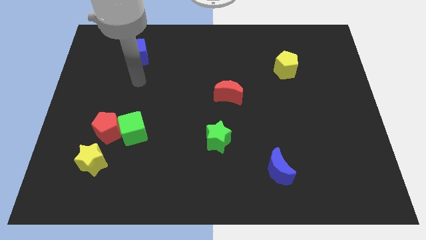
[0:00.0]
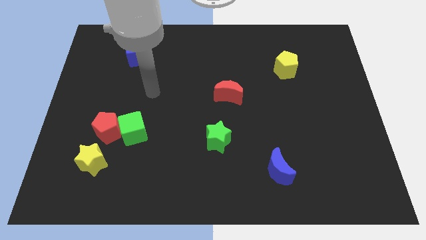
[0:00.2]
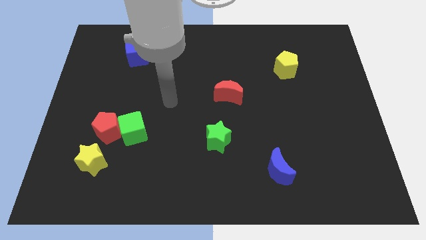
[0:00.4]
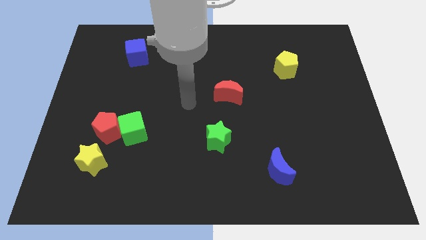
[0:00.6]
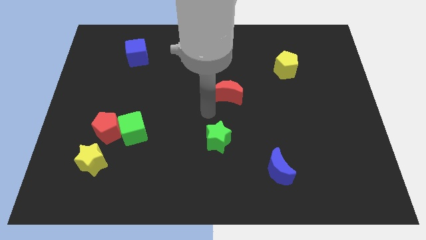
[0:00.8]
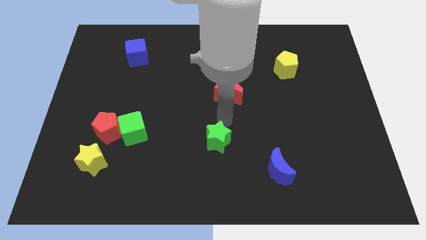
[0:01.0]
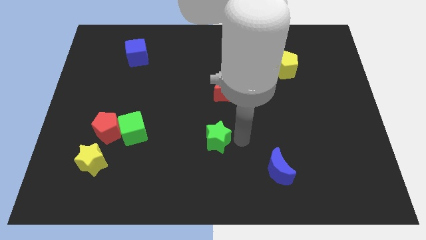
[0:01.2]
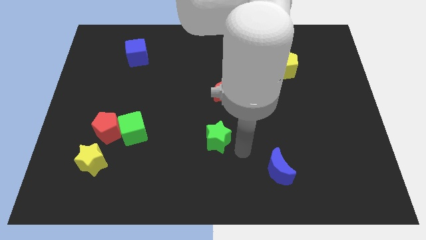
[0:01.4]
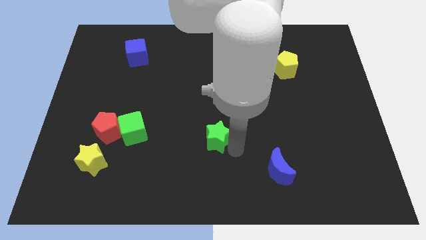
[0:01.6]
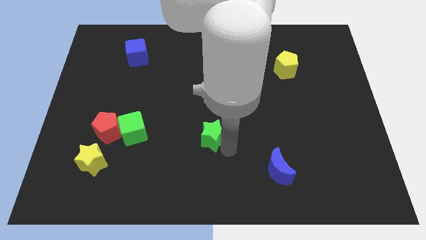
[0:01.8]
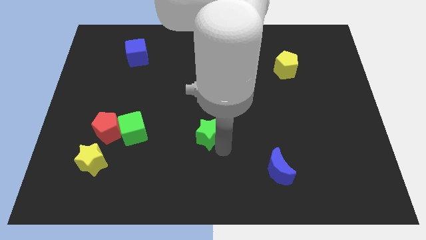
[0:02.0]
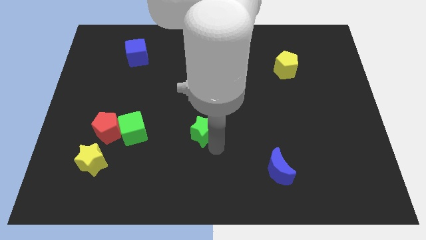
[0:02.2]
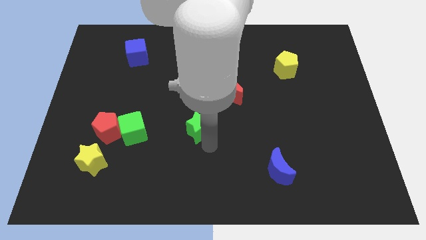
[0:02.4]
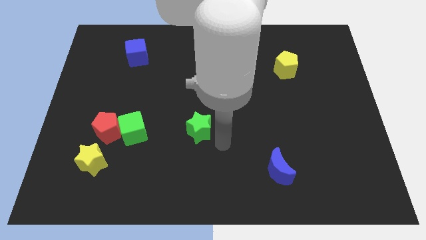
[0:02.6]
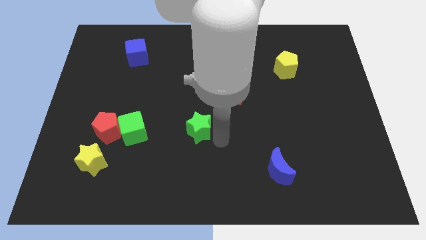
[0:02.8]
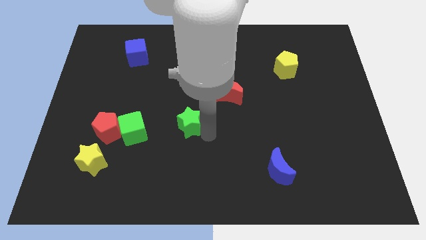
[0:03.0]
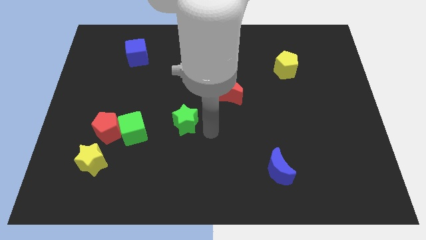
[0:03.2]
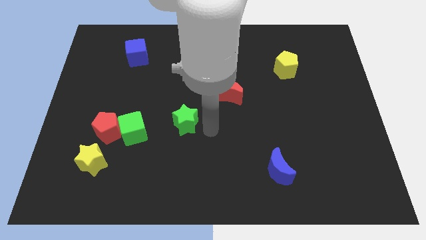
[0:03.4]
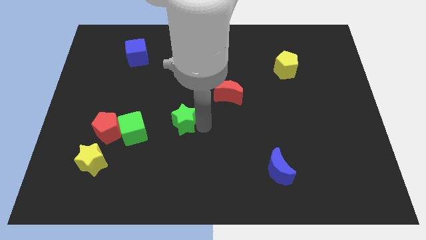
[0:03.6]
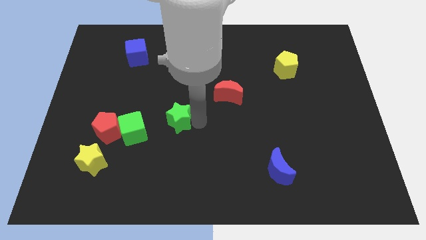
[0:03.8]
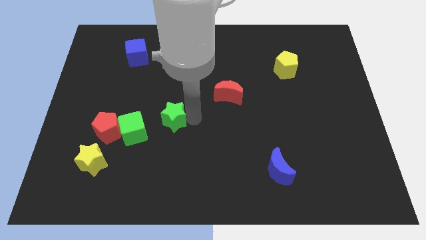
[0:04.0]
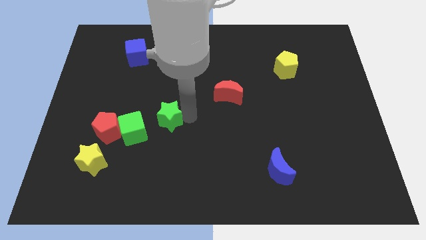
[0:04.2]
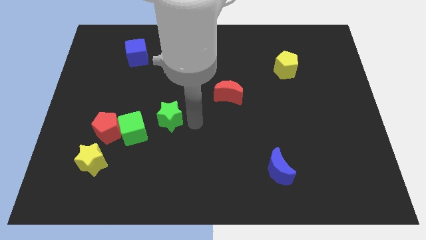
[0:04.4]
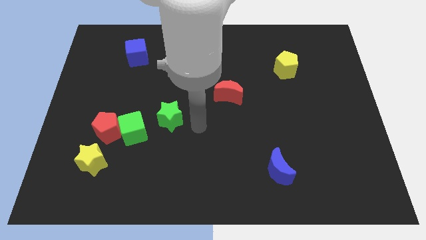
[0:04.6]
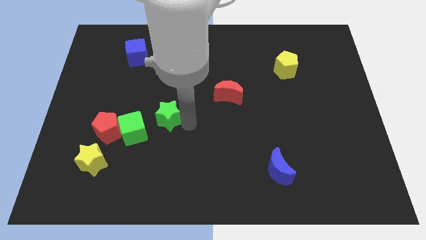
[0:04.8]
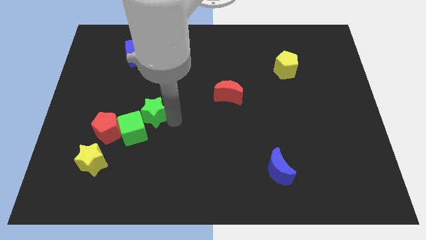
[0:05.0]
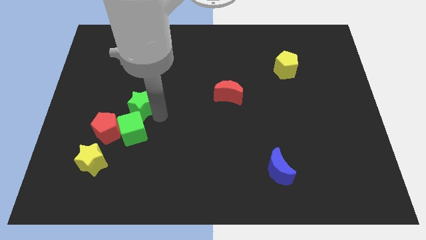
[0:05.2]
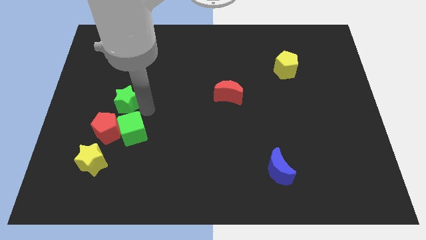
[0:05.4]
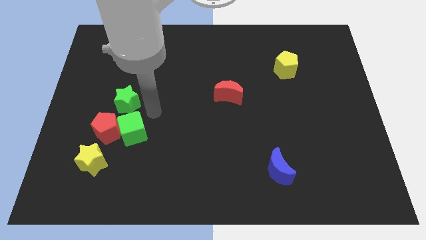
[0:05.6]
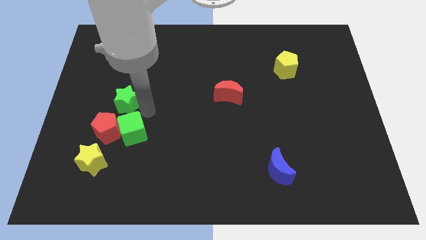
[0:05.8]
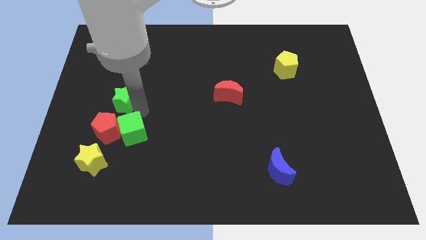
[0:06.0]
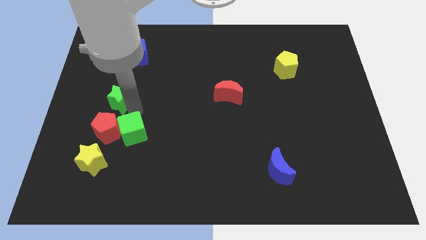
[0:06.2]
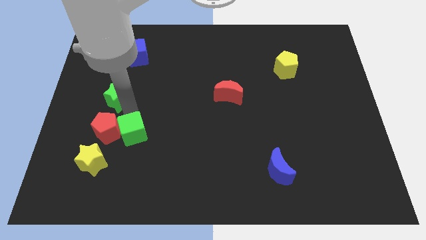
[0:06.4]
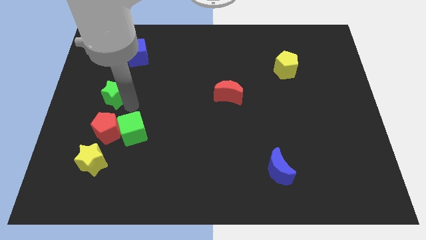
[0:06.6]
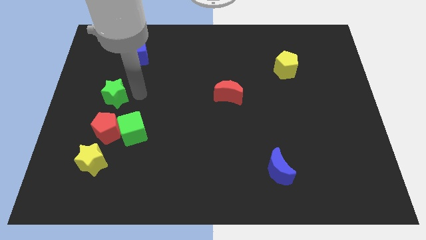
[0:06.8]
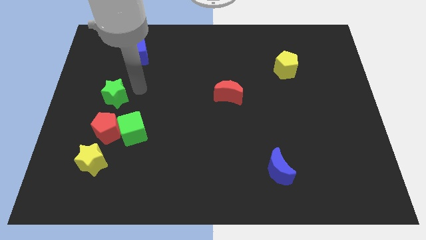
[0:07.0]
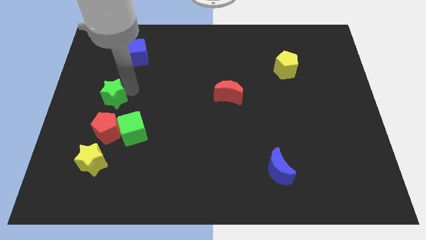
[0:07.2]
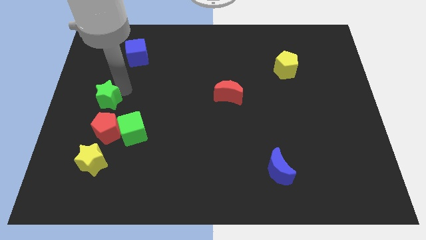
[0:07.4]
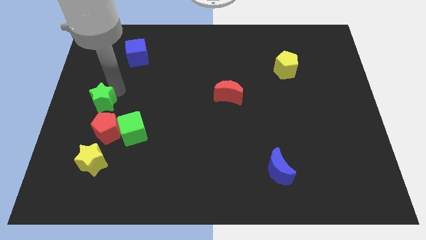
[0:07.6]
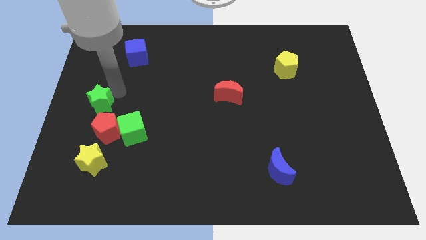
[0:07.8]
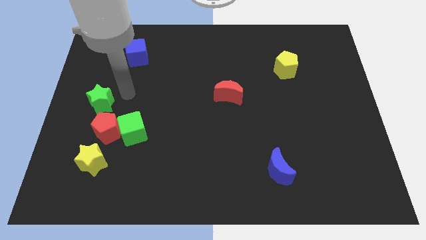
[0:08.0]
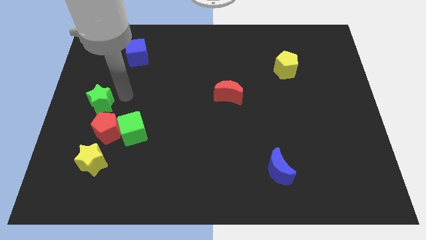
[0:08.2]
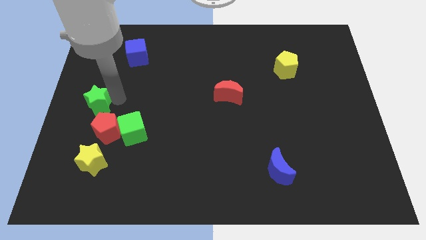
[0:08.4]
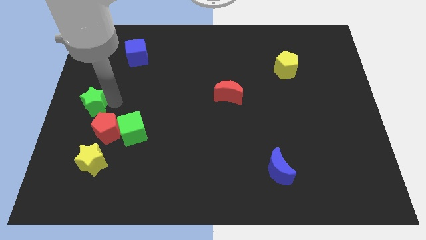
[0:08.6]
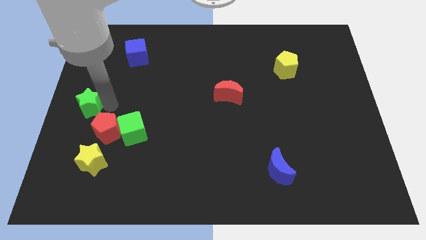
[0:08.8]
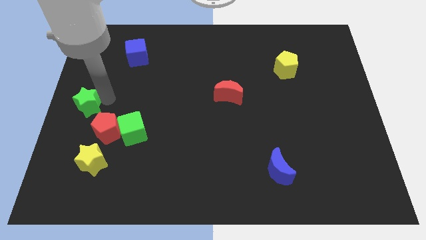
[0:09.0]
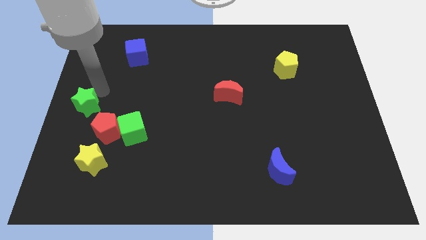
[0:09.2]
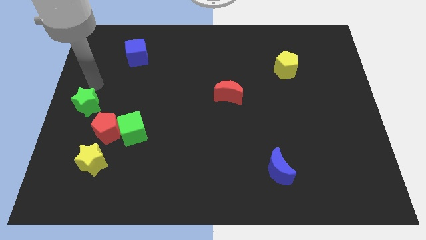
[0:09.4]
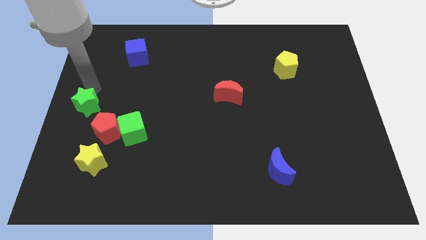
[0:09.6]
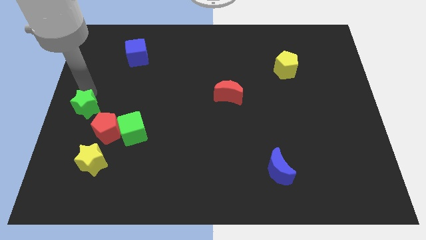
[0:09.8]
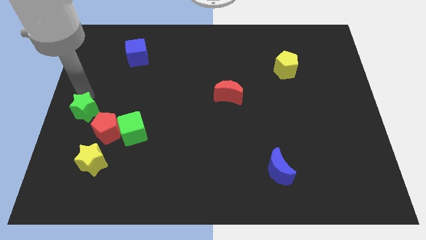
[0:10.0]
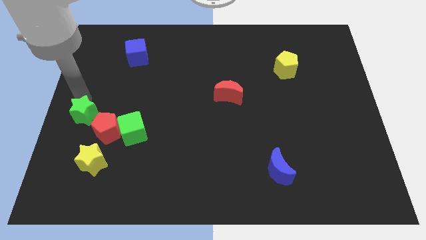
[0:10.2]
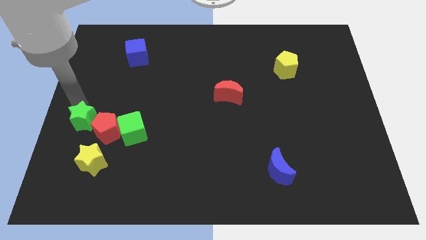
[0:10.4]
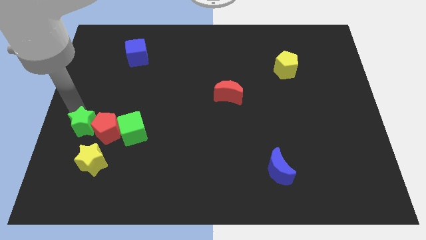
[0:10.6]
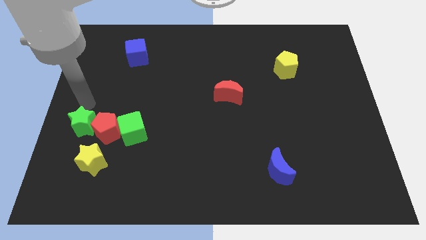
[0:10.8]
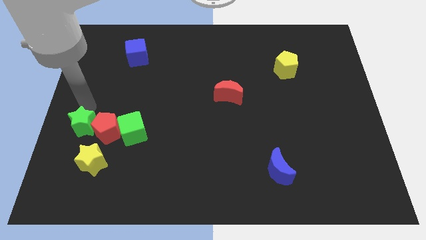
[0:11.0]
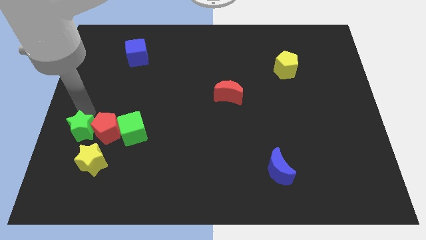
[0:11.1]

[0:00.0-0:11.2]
slide the green star diagonally down and to the left of the red pentagon

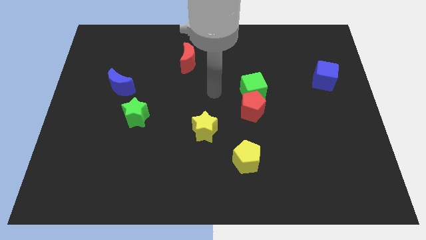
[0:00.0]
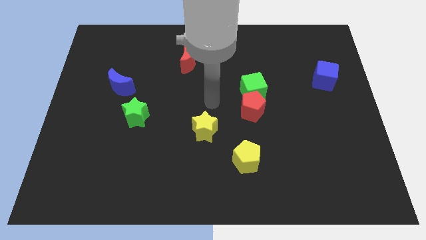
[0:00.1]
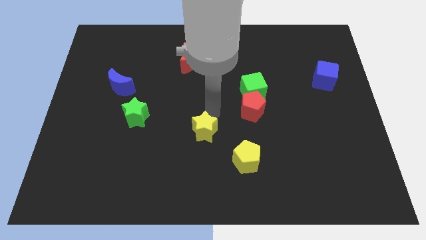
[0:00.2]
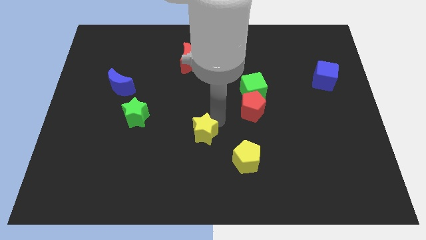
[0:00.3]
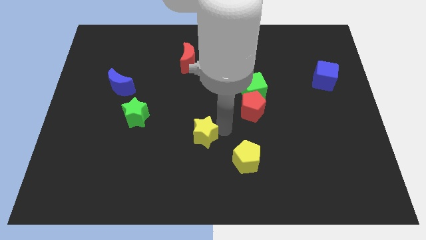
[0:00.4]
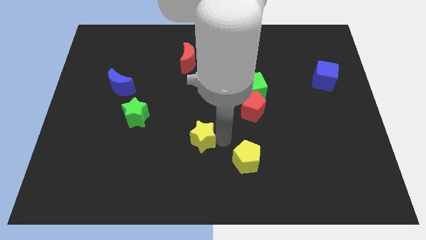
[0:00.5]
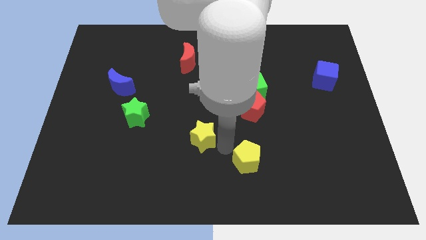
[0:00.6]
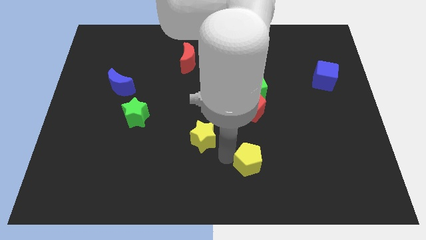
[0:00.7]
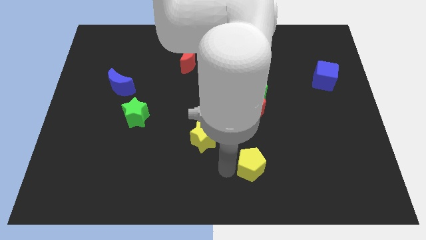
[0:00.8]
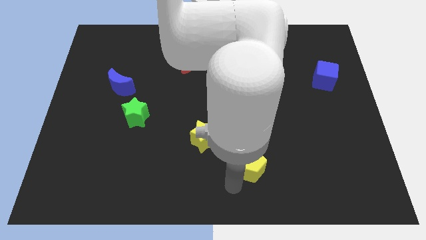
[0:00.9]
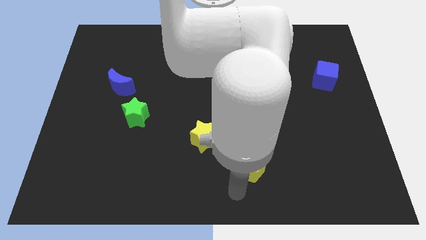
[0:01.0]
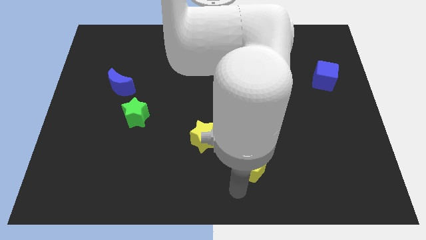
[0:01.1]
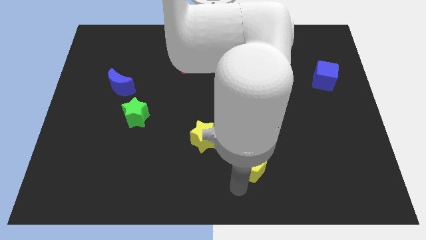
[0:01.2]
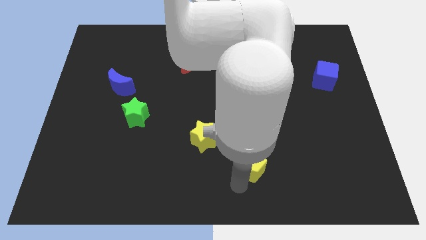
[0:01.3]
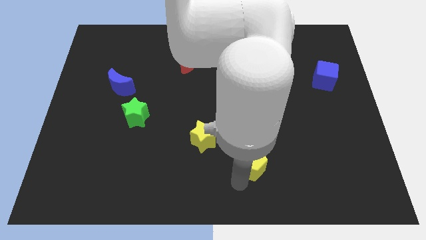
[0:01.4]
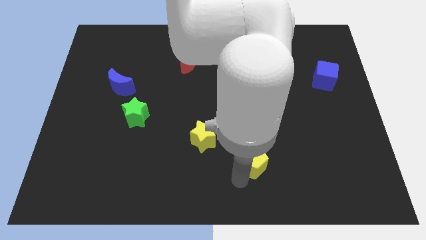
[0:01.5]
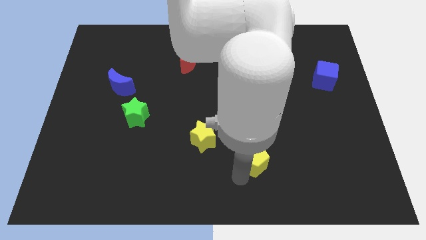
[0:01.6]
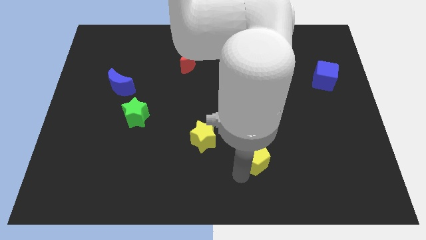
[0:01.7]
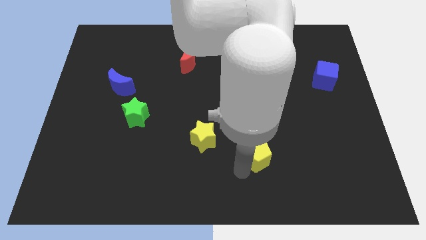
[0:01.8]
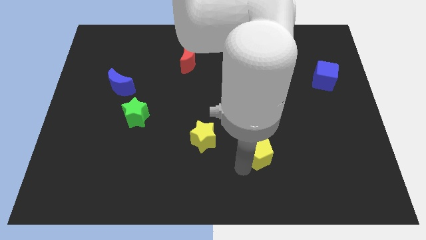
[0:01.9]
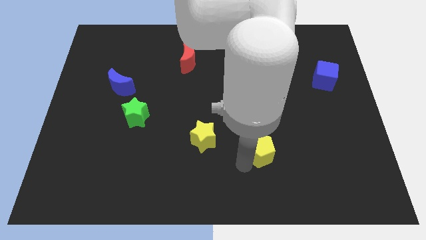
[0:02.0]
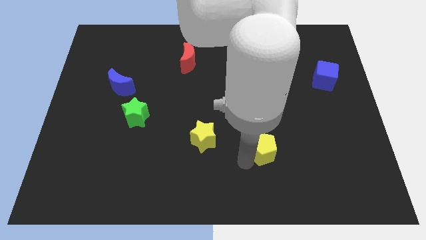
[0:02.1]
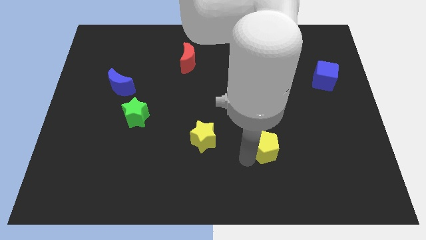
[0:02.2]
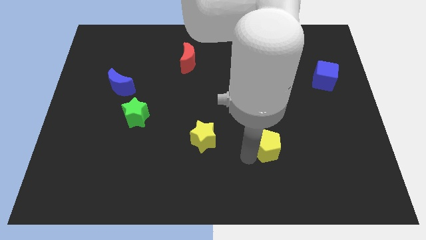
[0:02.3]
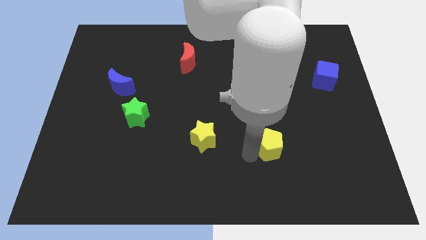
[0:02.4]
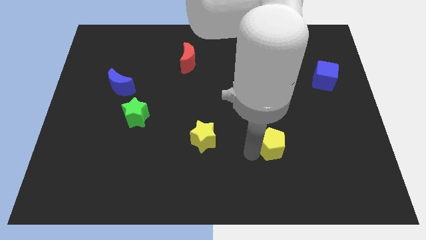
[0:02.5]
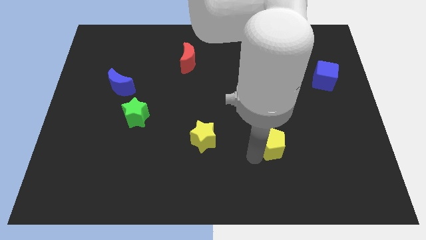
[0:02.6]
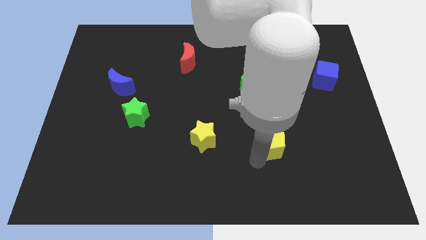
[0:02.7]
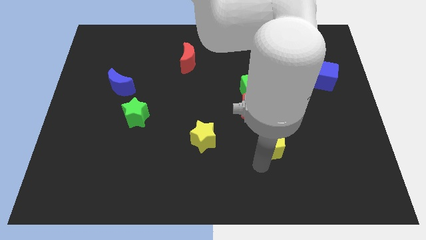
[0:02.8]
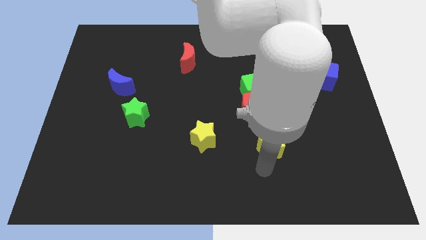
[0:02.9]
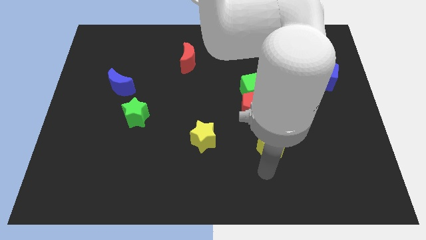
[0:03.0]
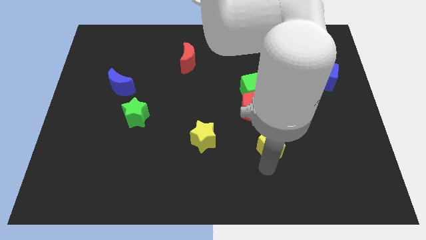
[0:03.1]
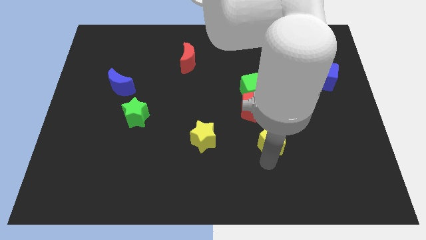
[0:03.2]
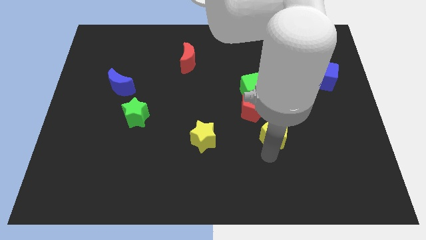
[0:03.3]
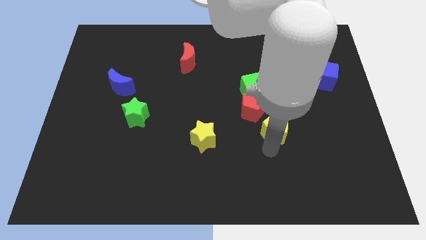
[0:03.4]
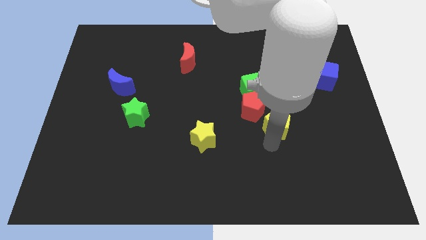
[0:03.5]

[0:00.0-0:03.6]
put the yellow pentagon right of the red pentagon
